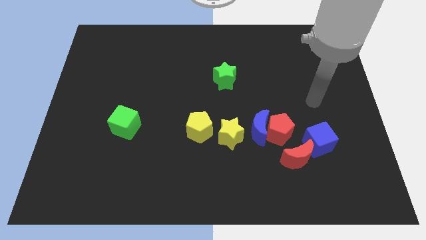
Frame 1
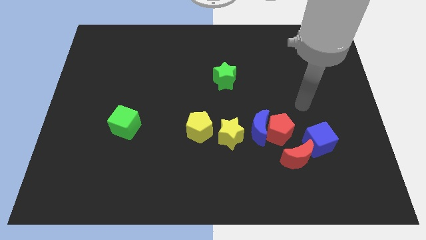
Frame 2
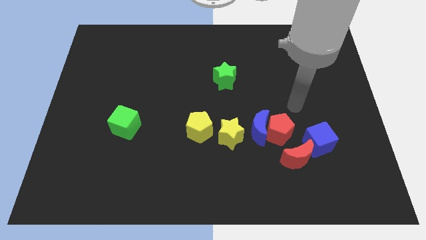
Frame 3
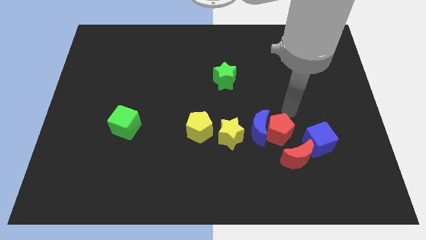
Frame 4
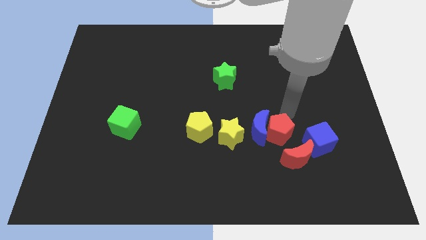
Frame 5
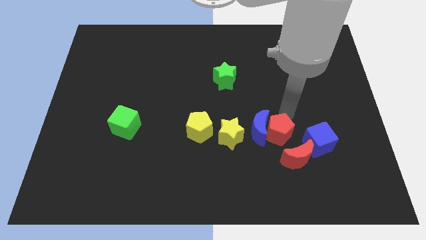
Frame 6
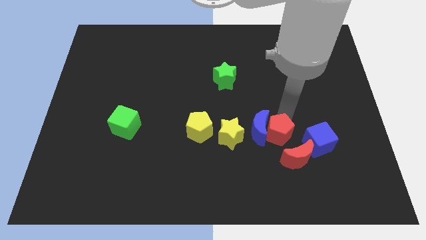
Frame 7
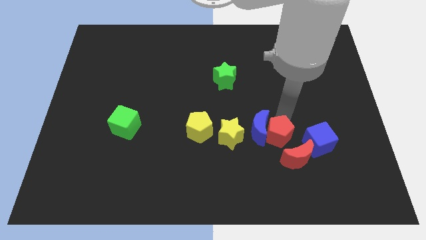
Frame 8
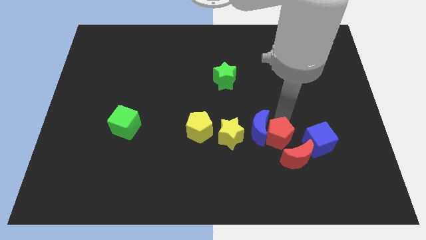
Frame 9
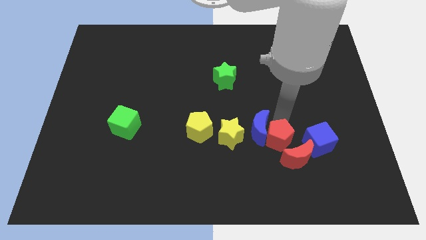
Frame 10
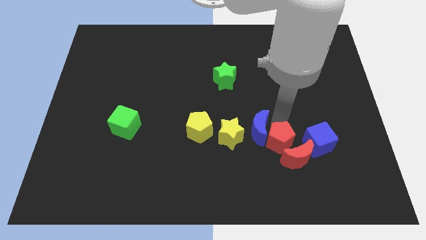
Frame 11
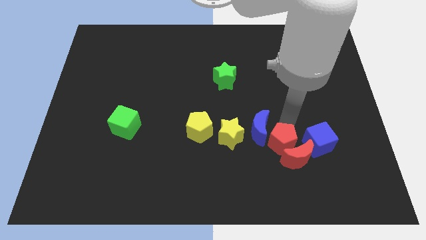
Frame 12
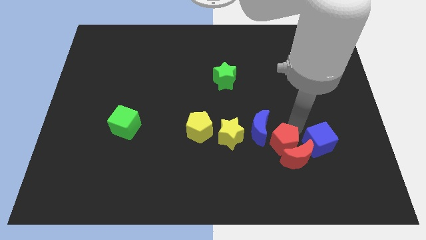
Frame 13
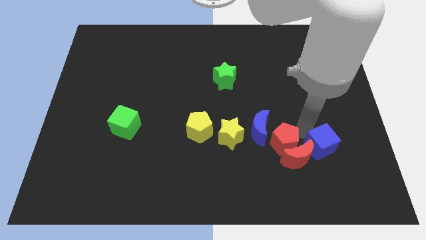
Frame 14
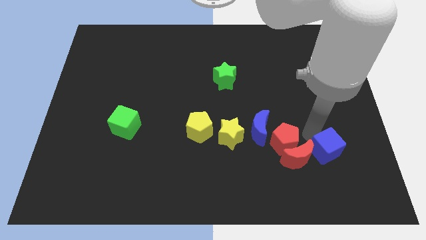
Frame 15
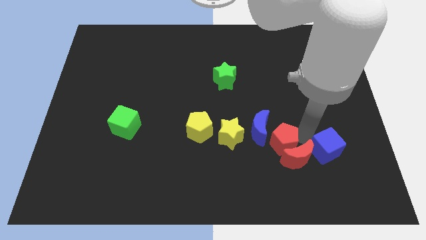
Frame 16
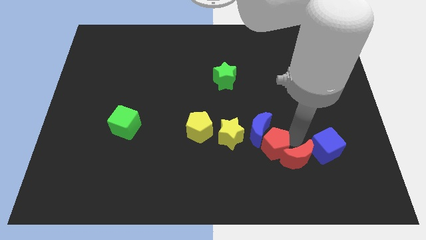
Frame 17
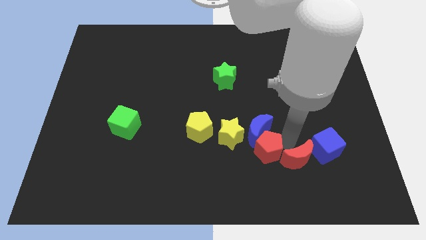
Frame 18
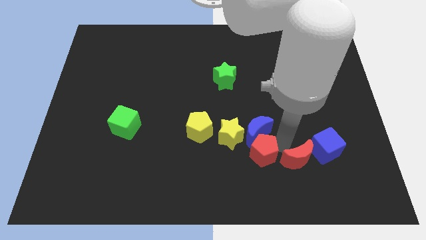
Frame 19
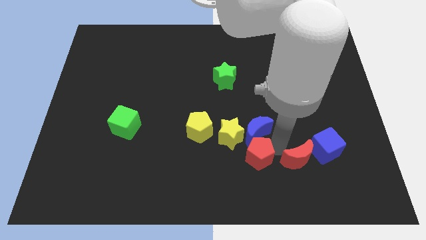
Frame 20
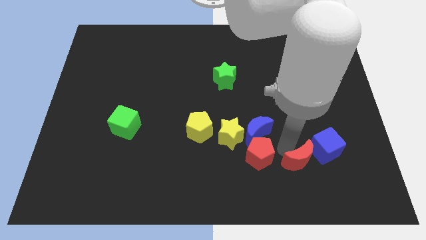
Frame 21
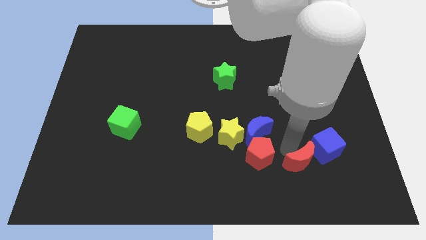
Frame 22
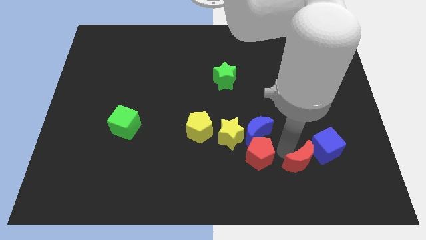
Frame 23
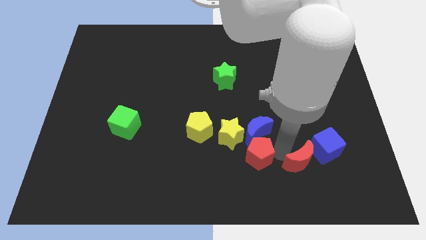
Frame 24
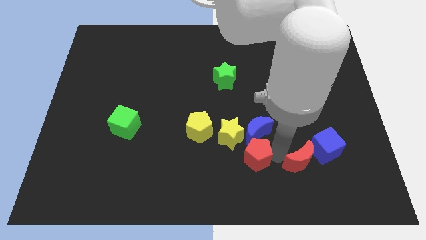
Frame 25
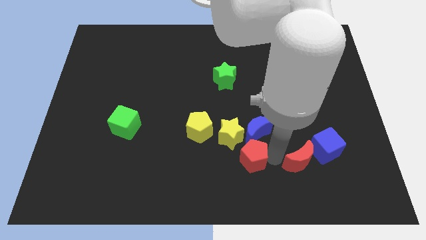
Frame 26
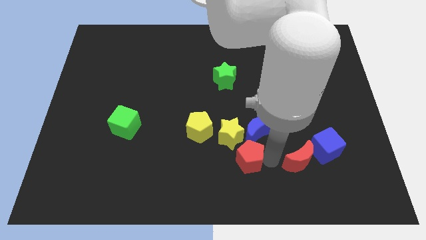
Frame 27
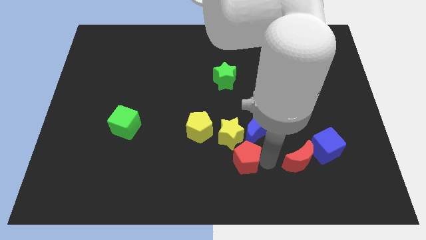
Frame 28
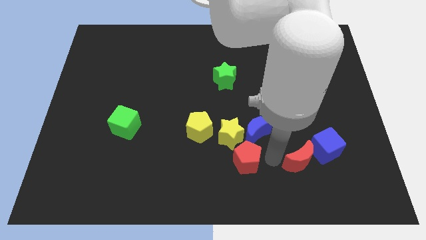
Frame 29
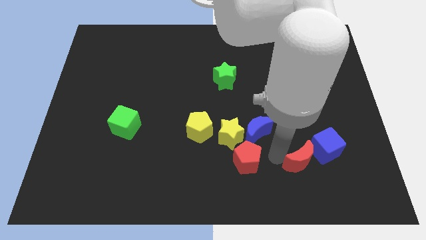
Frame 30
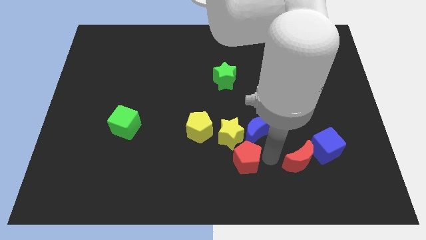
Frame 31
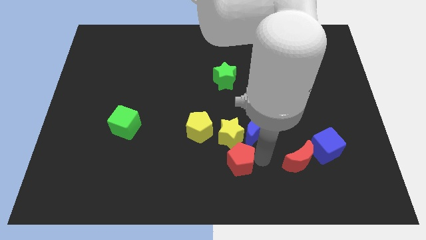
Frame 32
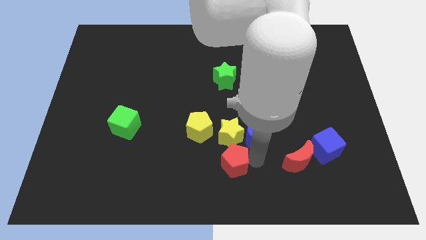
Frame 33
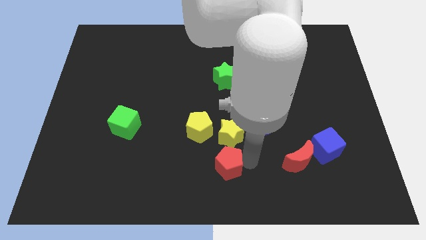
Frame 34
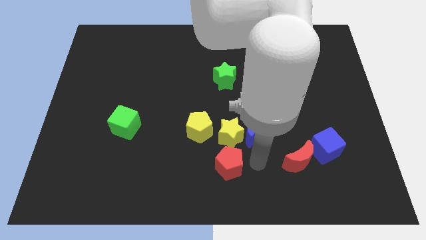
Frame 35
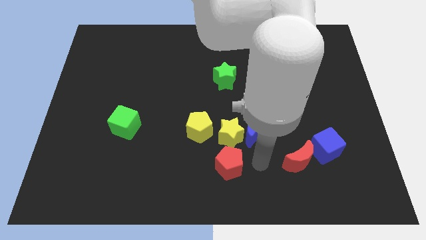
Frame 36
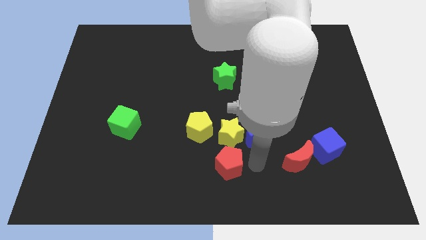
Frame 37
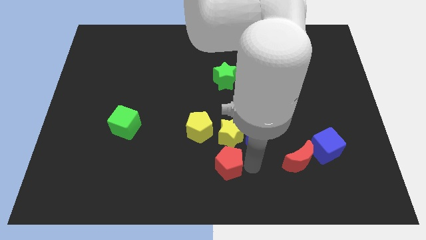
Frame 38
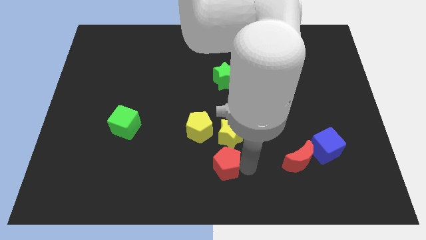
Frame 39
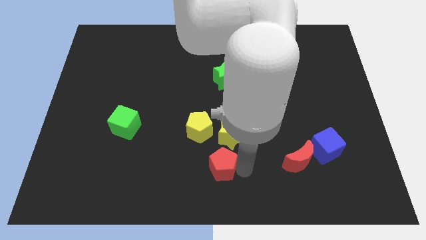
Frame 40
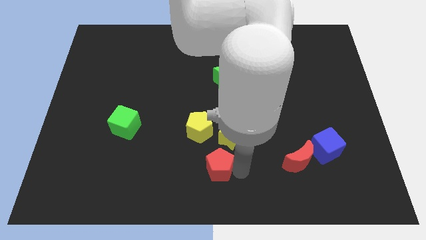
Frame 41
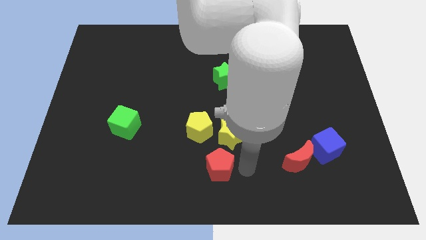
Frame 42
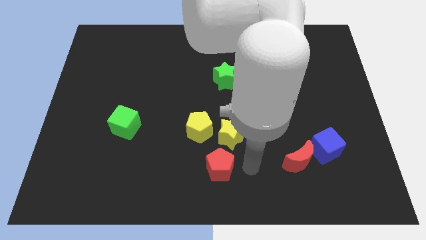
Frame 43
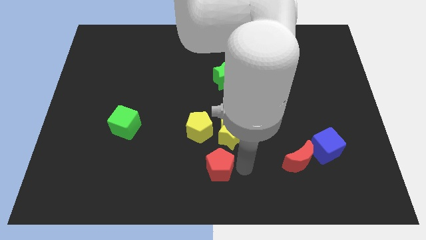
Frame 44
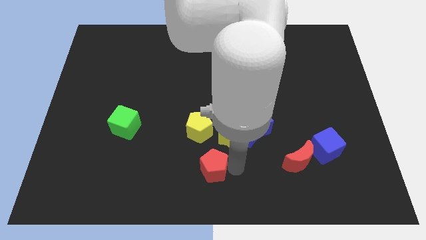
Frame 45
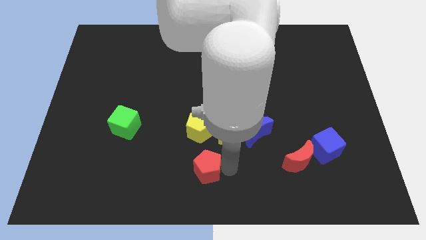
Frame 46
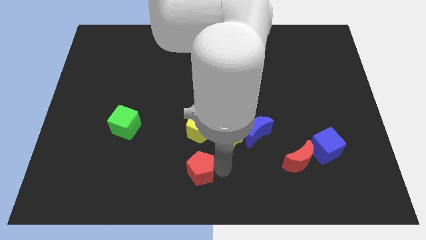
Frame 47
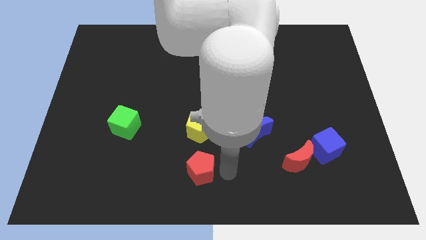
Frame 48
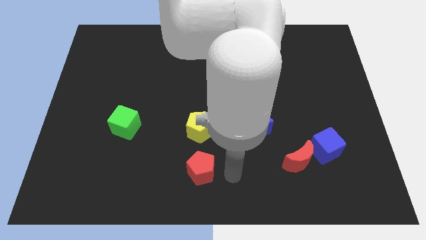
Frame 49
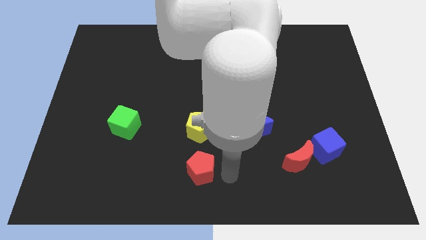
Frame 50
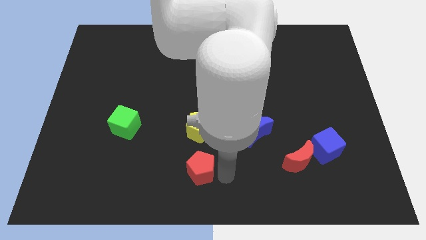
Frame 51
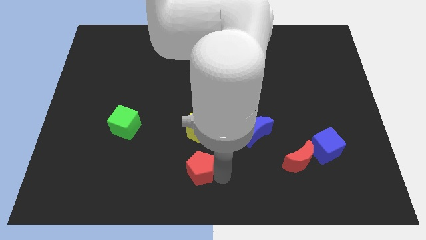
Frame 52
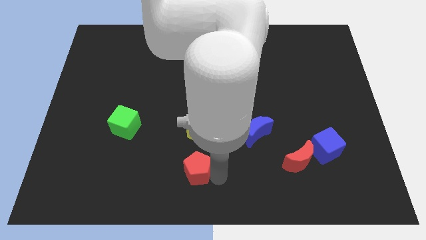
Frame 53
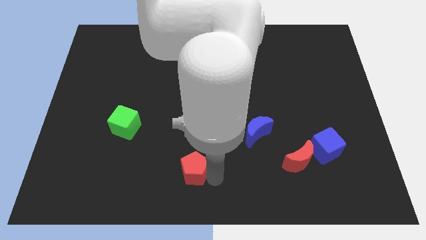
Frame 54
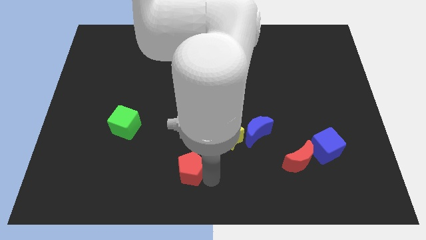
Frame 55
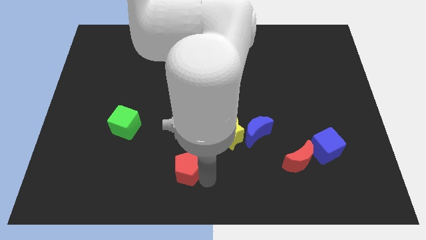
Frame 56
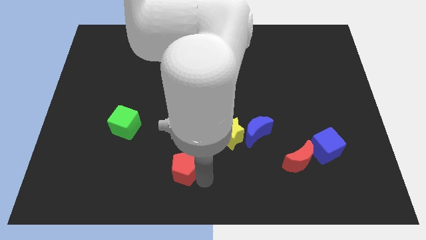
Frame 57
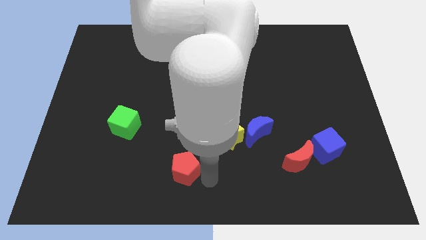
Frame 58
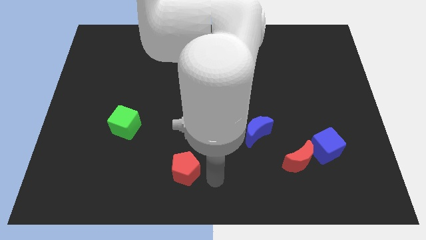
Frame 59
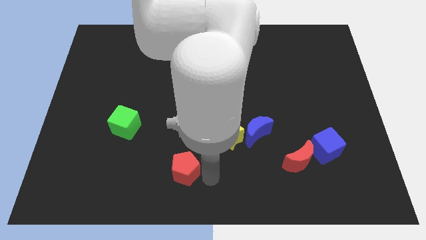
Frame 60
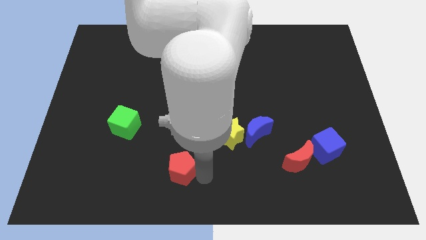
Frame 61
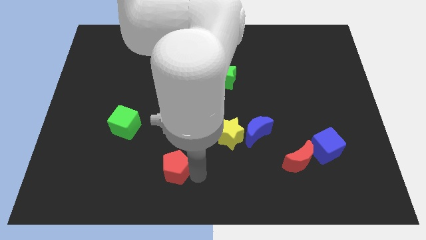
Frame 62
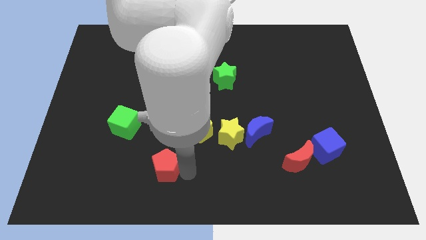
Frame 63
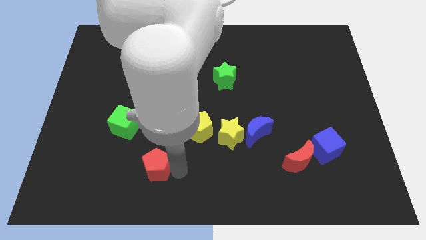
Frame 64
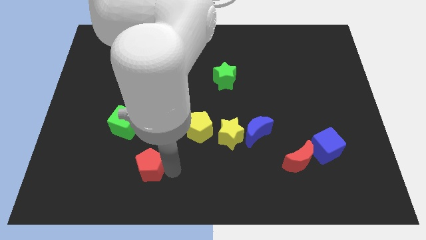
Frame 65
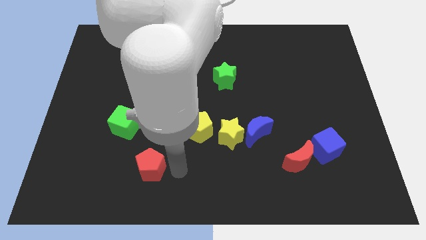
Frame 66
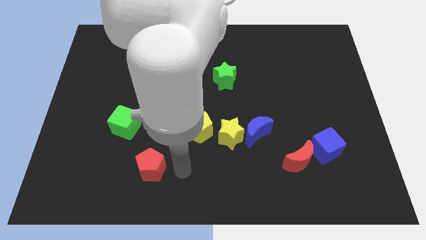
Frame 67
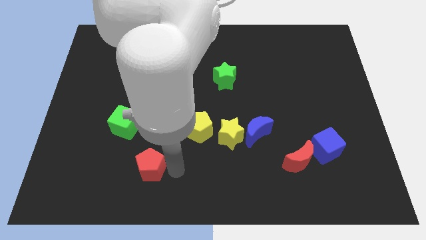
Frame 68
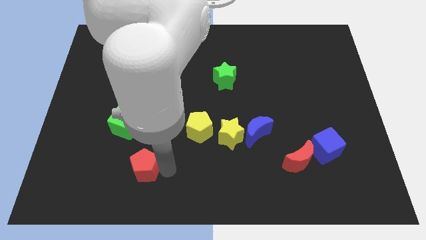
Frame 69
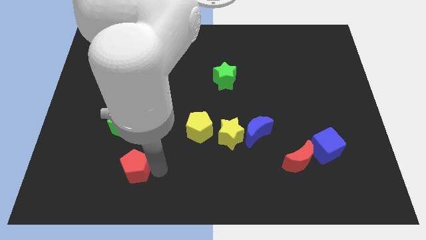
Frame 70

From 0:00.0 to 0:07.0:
move the red pentagon to the bottom side of the green cube

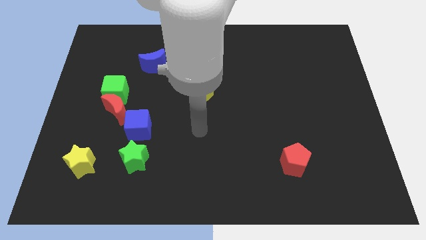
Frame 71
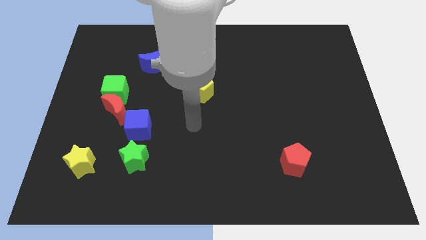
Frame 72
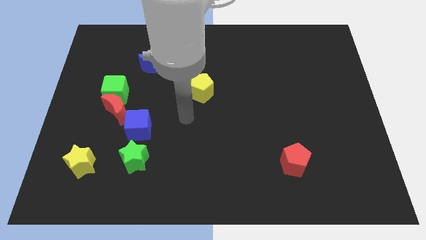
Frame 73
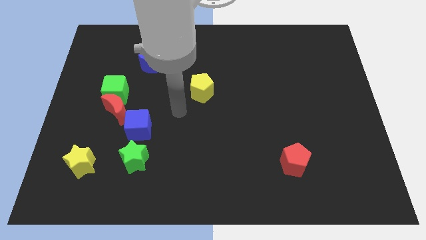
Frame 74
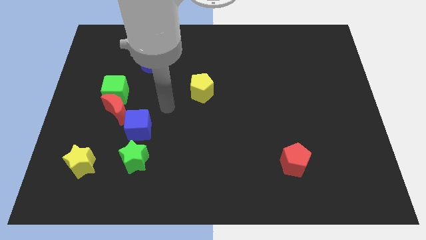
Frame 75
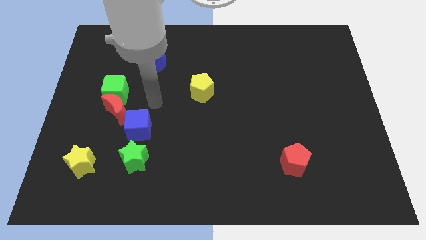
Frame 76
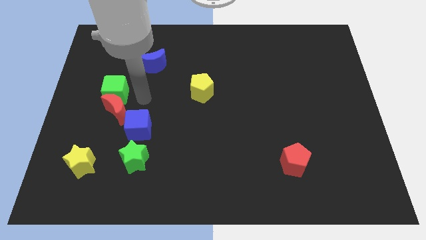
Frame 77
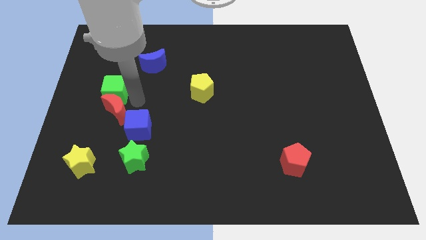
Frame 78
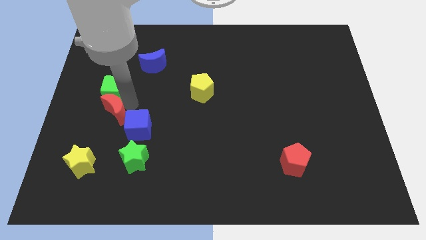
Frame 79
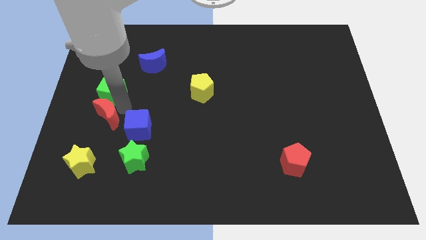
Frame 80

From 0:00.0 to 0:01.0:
slide the red moon to the top side of the yellow star
